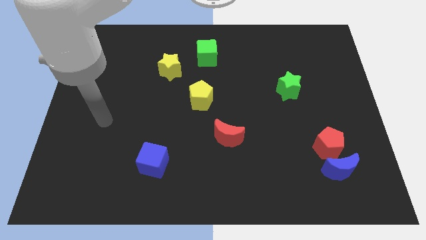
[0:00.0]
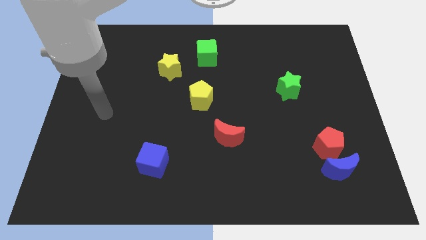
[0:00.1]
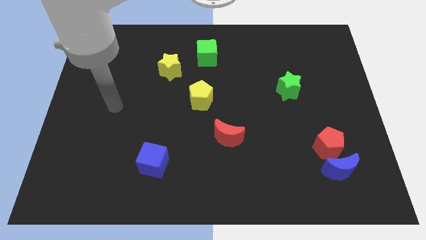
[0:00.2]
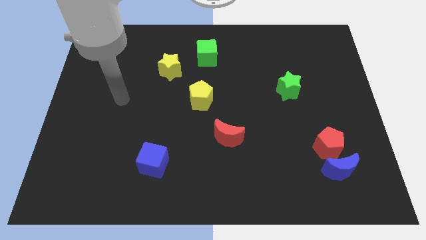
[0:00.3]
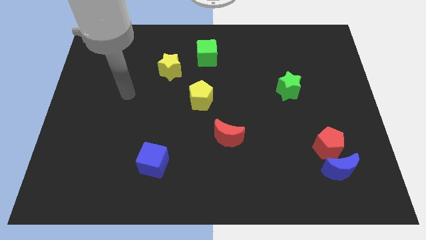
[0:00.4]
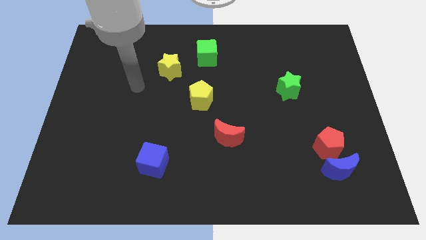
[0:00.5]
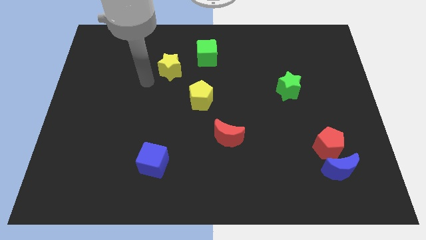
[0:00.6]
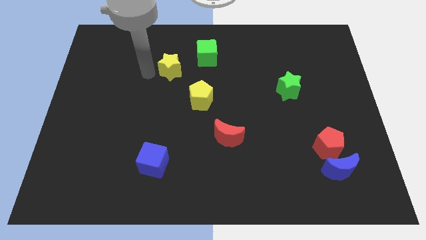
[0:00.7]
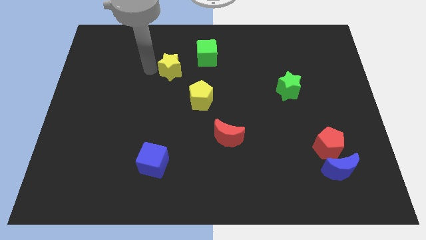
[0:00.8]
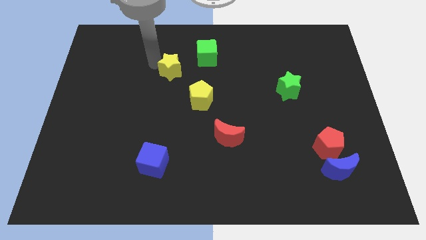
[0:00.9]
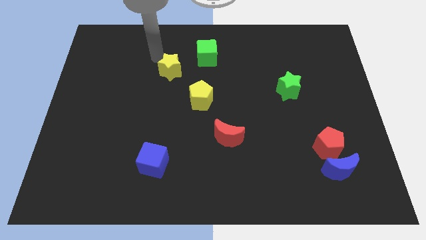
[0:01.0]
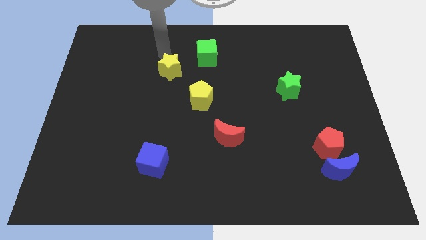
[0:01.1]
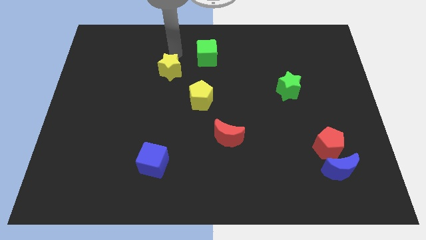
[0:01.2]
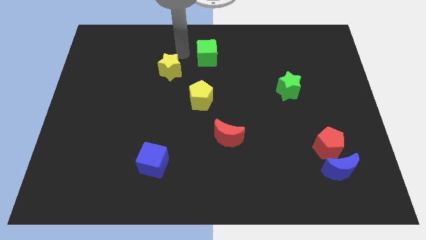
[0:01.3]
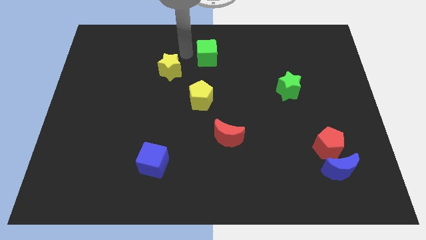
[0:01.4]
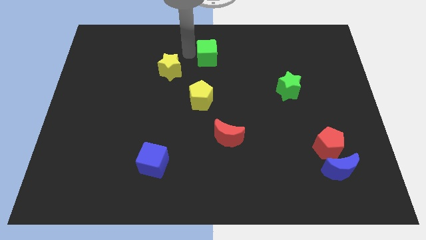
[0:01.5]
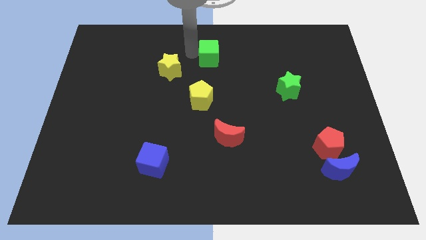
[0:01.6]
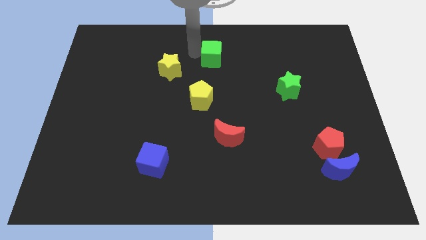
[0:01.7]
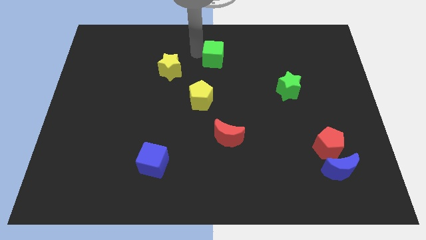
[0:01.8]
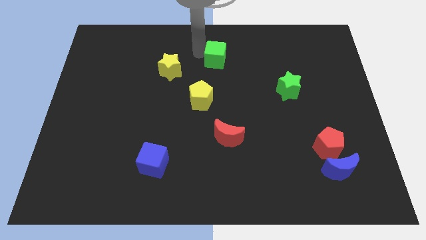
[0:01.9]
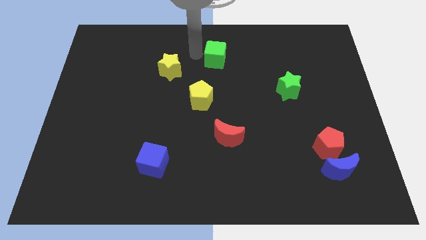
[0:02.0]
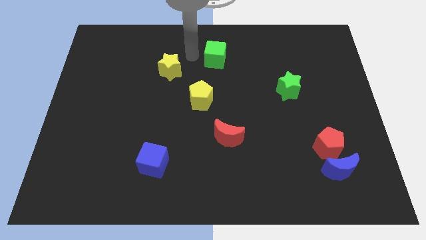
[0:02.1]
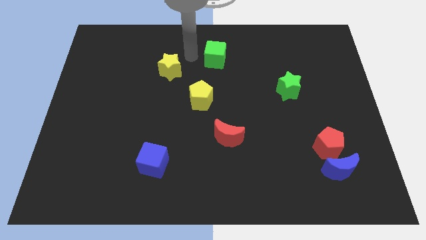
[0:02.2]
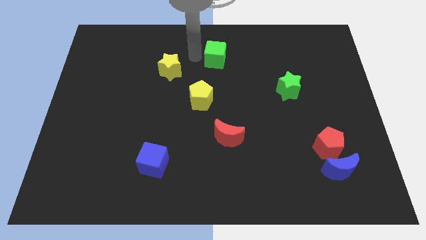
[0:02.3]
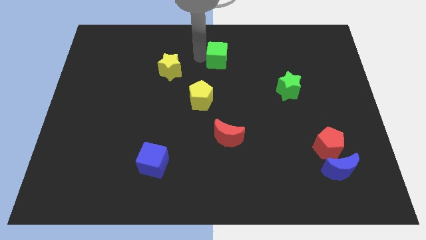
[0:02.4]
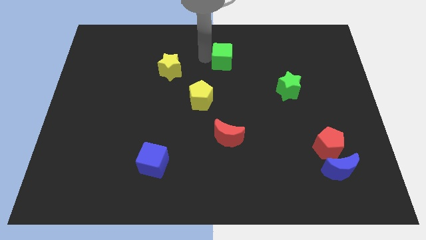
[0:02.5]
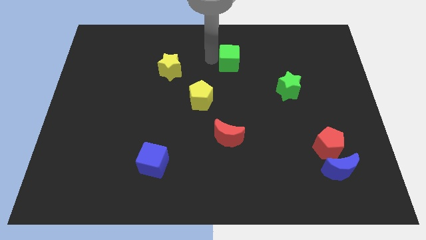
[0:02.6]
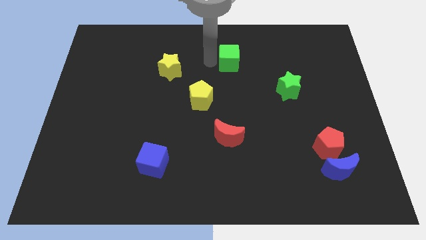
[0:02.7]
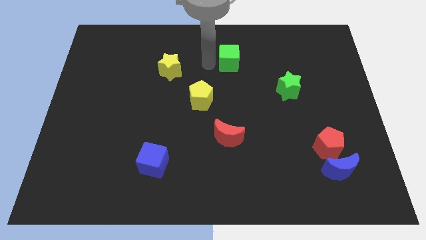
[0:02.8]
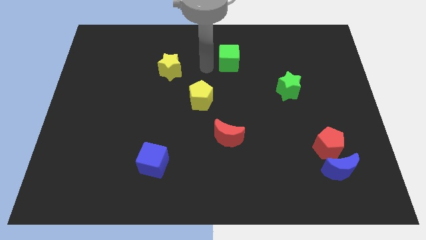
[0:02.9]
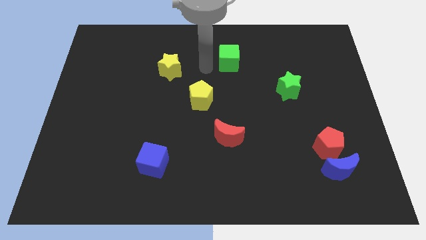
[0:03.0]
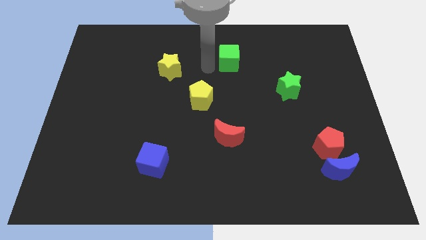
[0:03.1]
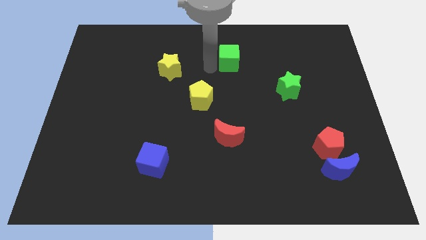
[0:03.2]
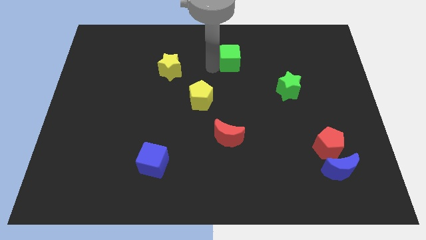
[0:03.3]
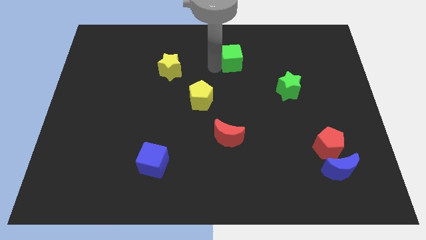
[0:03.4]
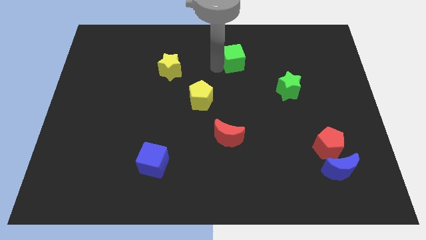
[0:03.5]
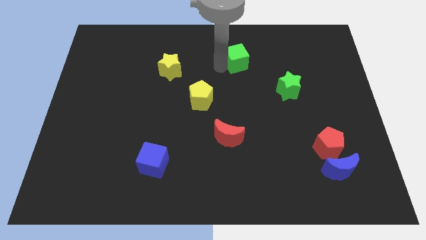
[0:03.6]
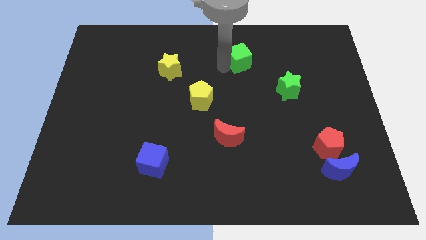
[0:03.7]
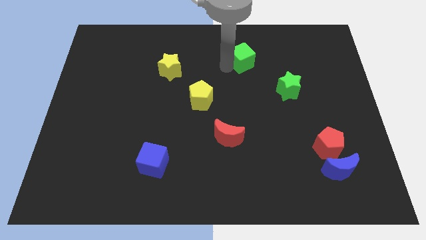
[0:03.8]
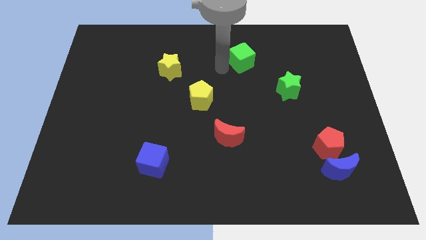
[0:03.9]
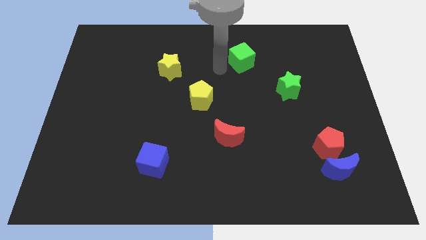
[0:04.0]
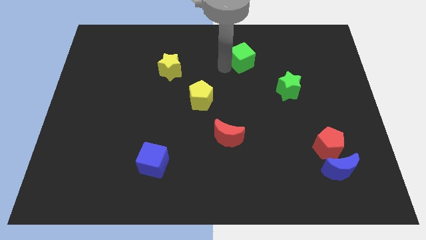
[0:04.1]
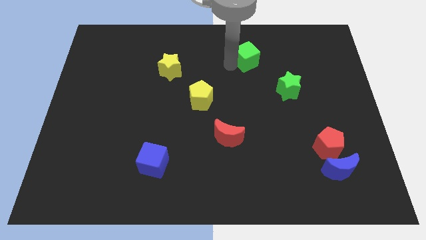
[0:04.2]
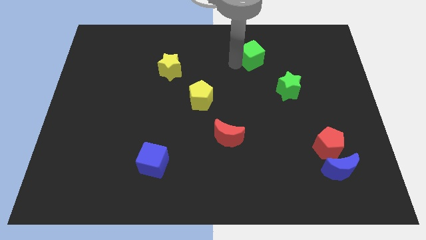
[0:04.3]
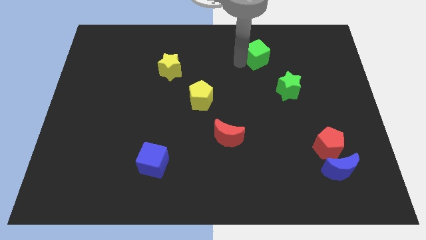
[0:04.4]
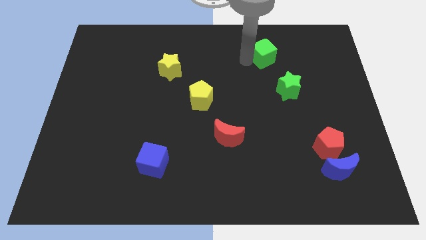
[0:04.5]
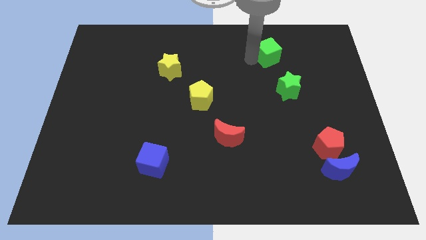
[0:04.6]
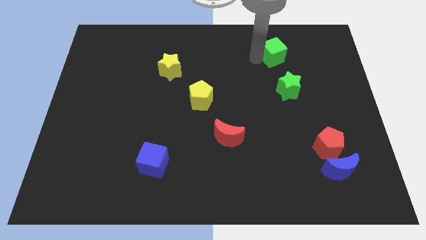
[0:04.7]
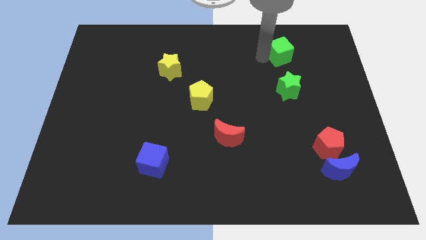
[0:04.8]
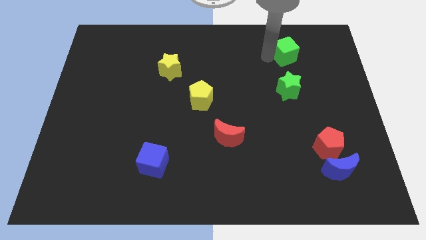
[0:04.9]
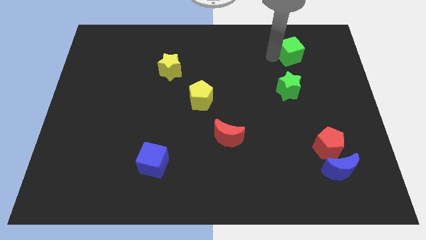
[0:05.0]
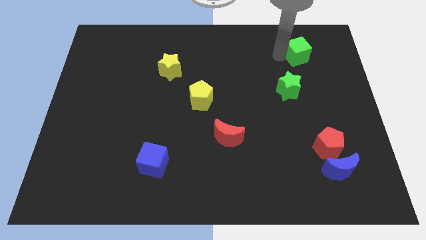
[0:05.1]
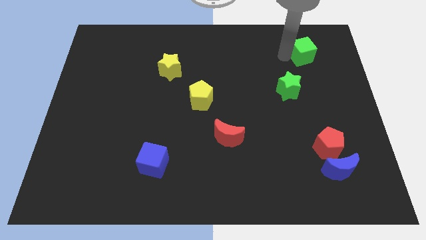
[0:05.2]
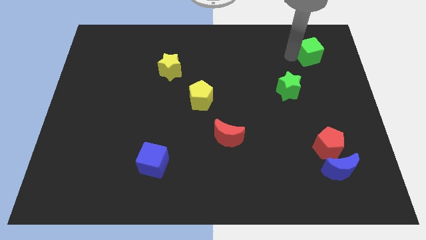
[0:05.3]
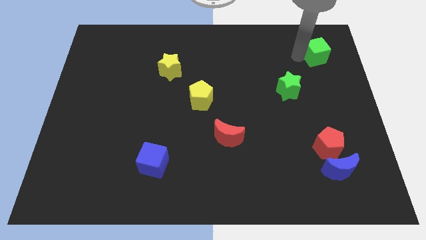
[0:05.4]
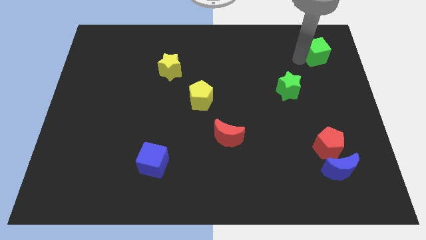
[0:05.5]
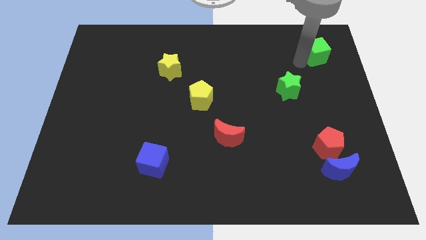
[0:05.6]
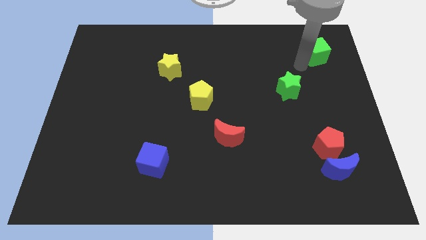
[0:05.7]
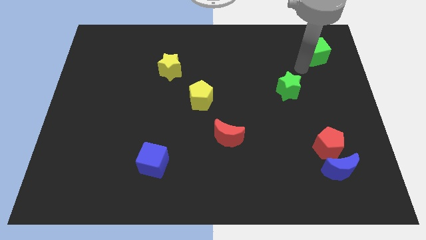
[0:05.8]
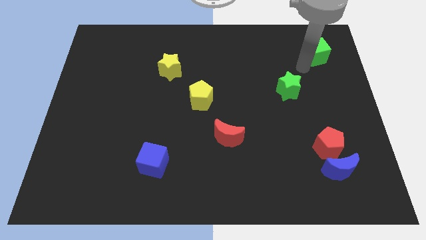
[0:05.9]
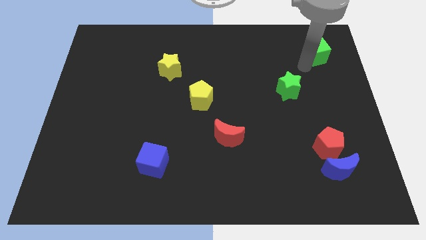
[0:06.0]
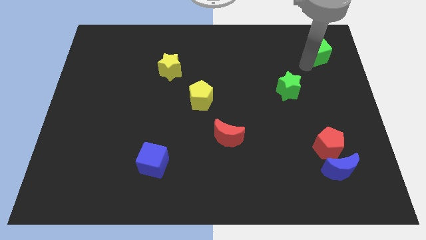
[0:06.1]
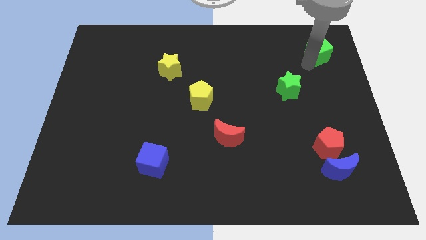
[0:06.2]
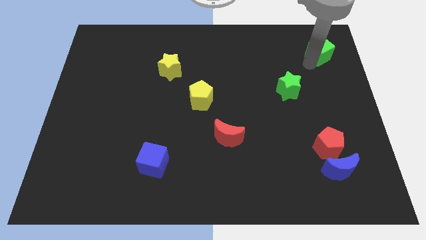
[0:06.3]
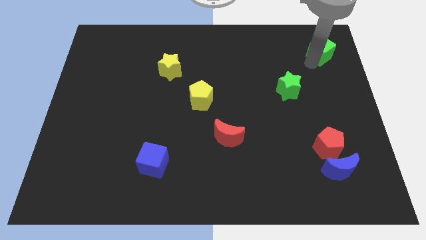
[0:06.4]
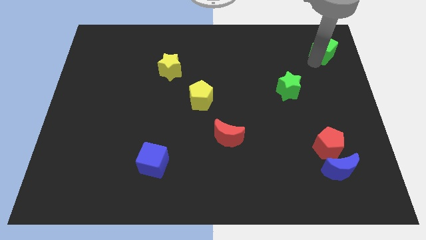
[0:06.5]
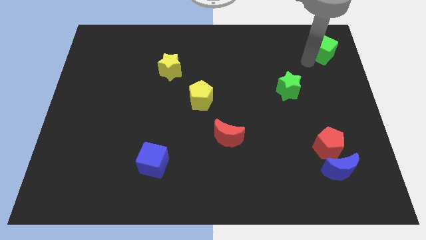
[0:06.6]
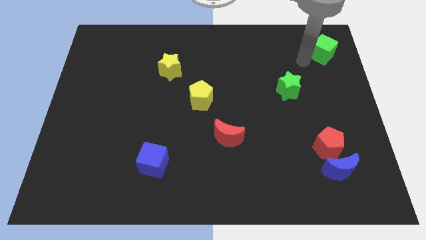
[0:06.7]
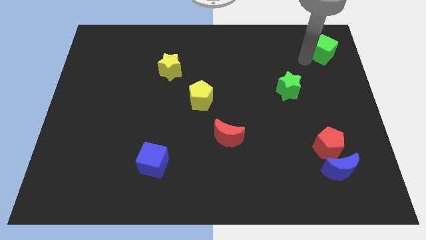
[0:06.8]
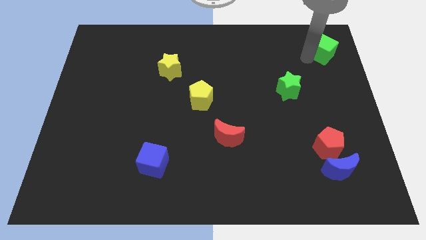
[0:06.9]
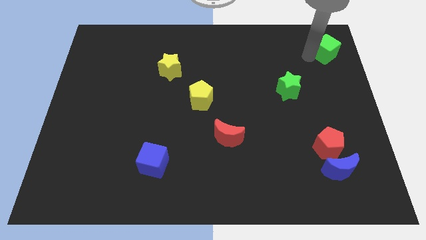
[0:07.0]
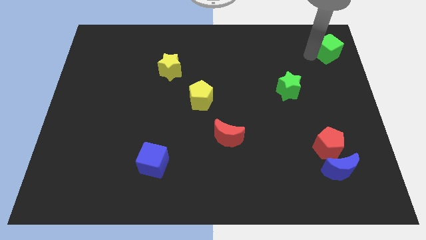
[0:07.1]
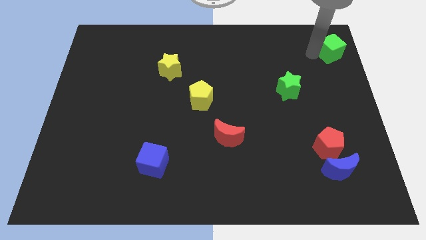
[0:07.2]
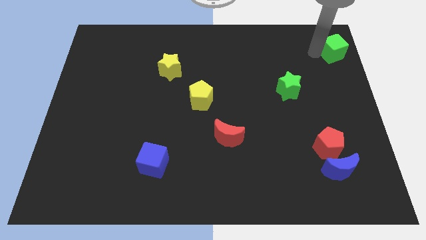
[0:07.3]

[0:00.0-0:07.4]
put the green cube to the top right of the board
